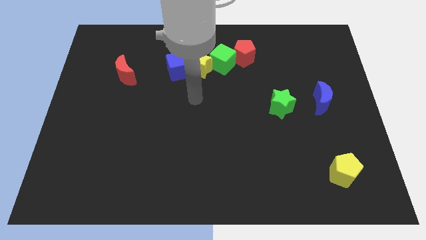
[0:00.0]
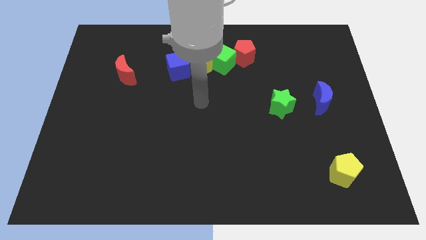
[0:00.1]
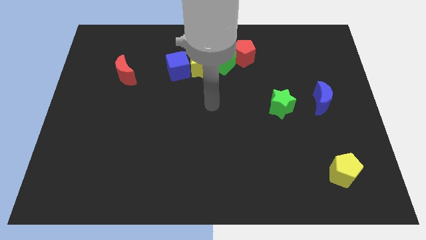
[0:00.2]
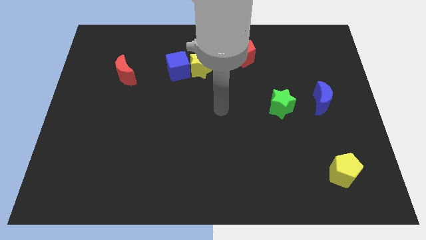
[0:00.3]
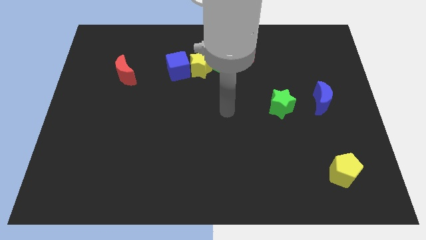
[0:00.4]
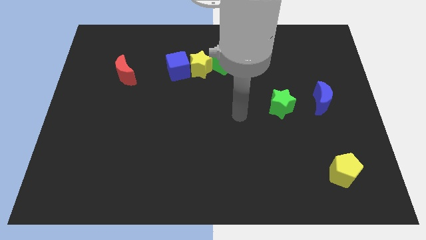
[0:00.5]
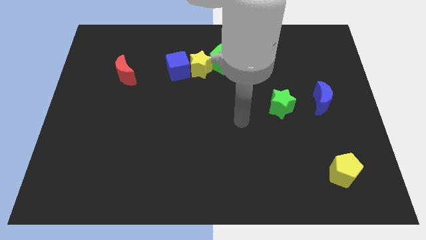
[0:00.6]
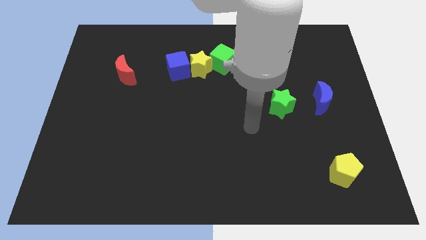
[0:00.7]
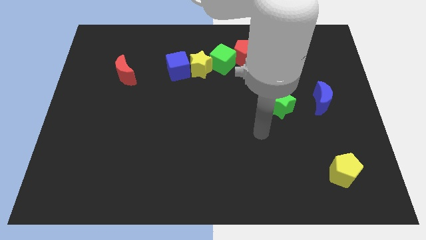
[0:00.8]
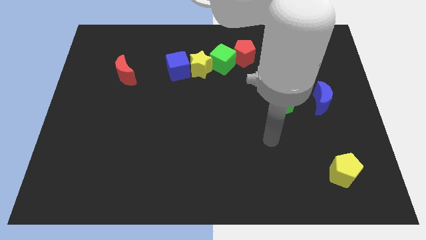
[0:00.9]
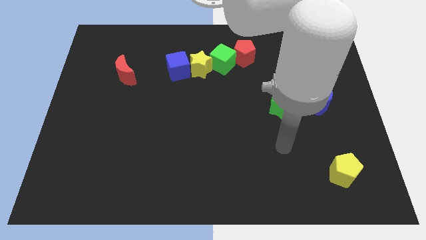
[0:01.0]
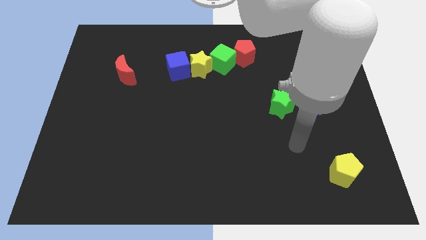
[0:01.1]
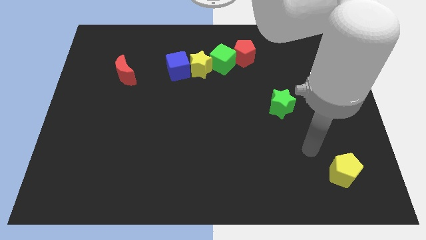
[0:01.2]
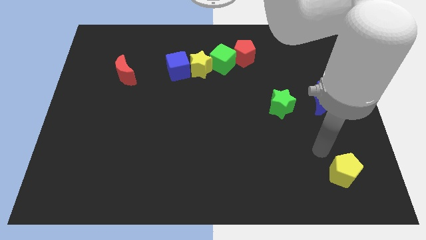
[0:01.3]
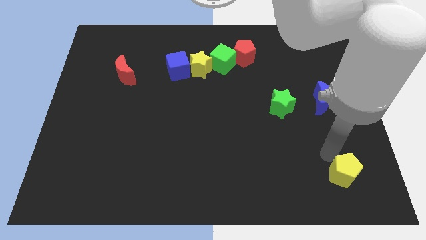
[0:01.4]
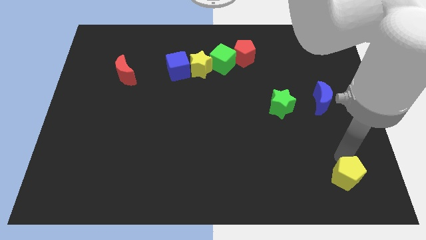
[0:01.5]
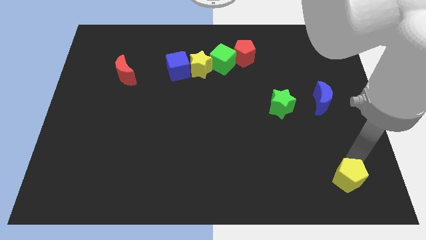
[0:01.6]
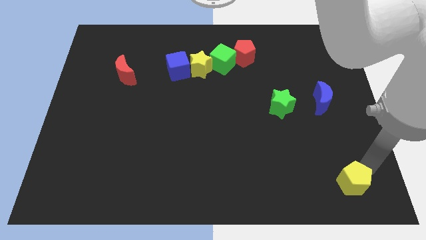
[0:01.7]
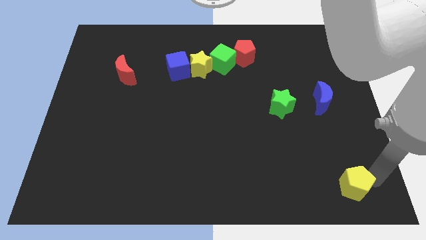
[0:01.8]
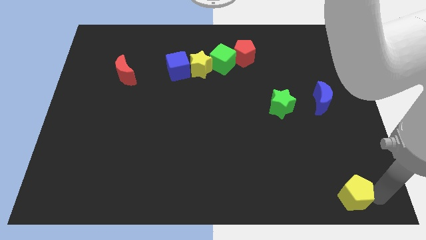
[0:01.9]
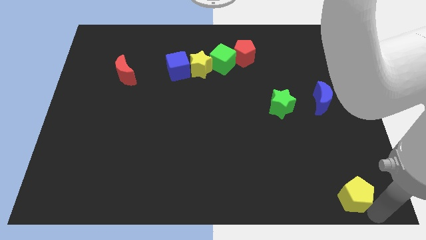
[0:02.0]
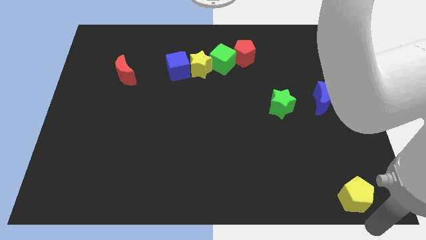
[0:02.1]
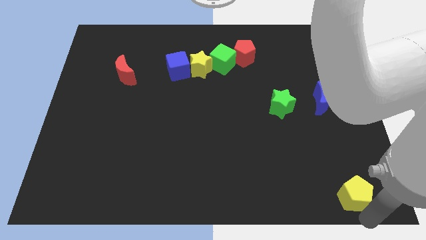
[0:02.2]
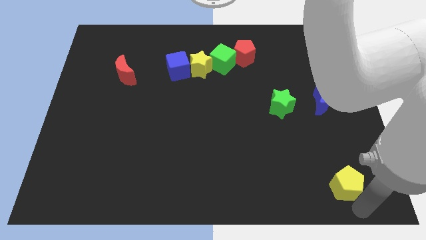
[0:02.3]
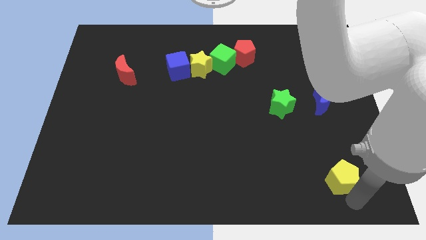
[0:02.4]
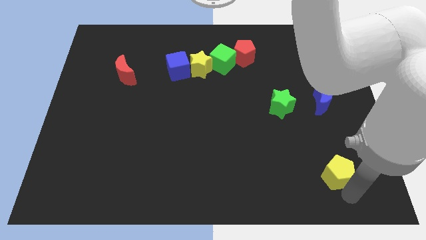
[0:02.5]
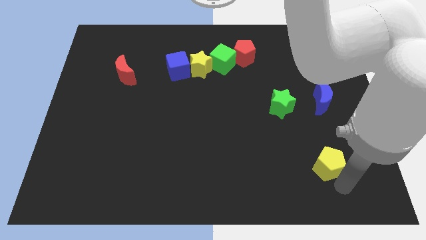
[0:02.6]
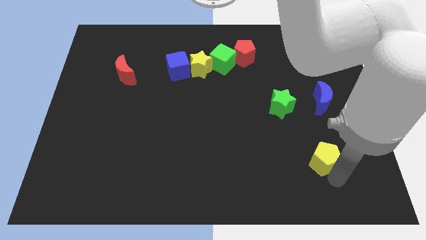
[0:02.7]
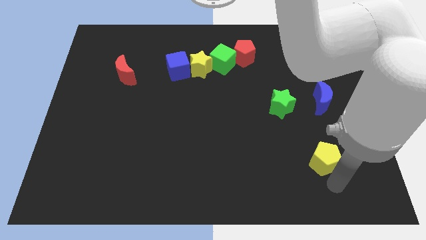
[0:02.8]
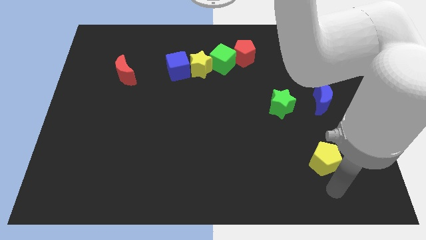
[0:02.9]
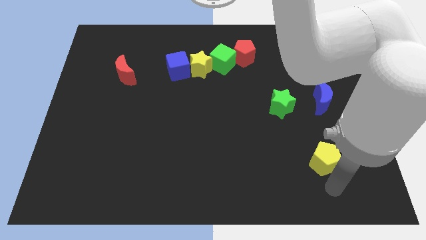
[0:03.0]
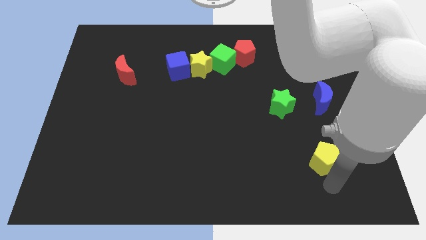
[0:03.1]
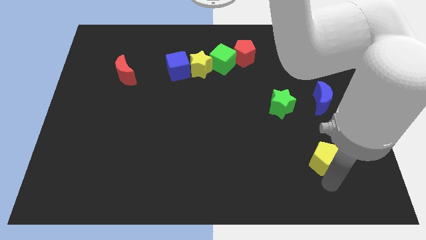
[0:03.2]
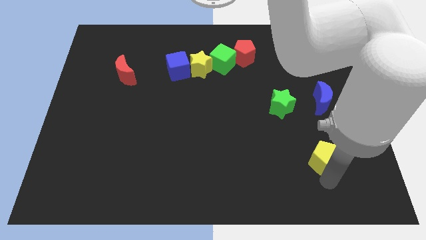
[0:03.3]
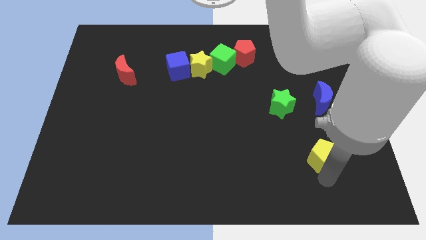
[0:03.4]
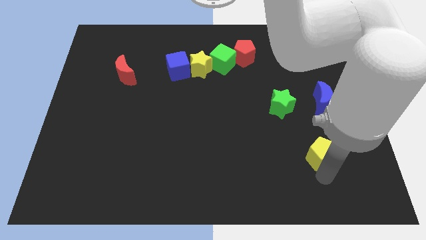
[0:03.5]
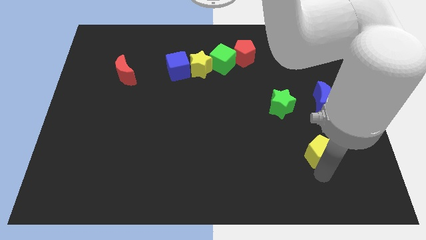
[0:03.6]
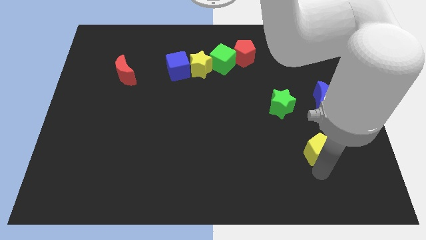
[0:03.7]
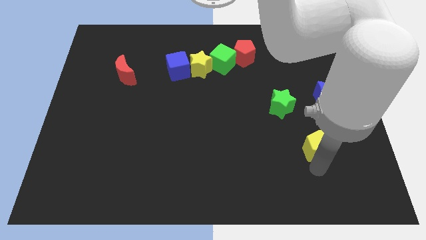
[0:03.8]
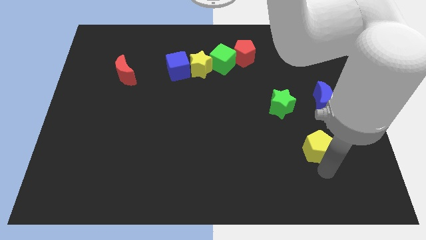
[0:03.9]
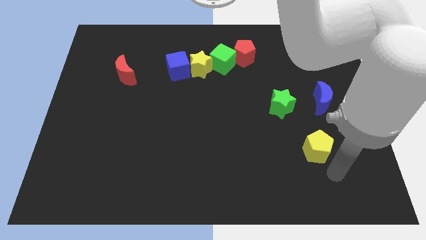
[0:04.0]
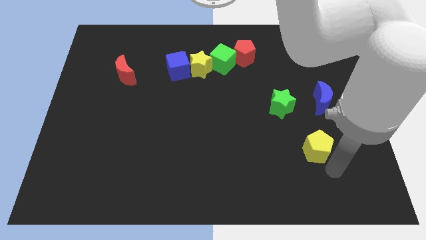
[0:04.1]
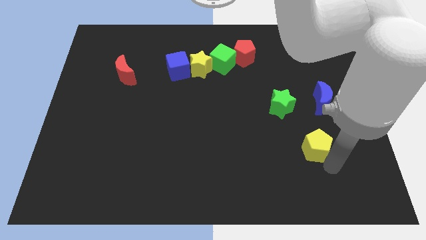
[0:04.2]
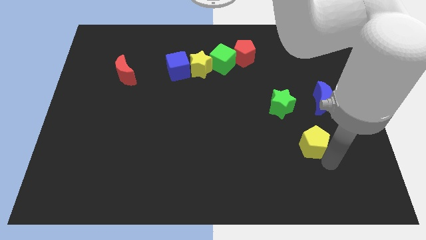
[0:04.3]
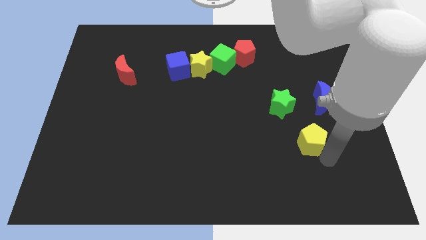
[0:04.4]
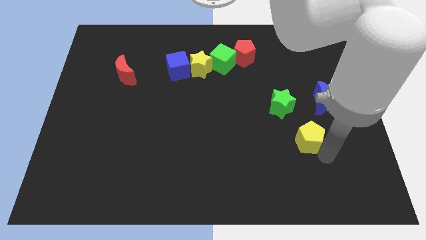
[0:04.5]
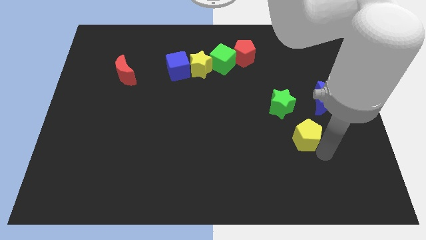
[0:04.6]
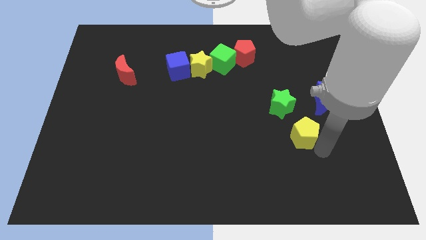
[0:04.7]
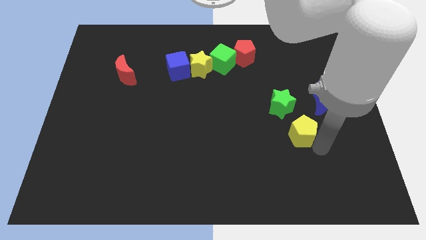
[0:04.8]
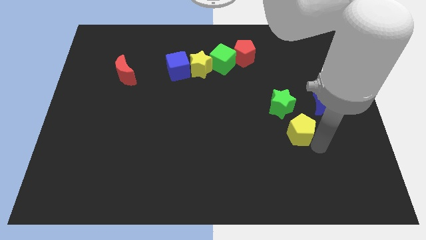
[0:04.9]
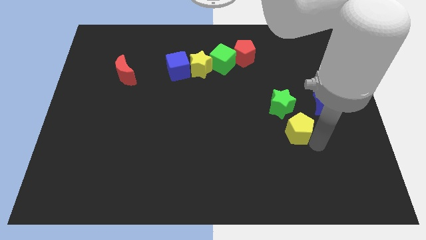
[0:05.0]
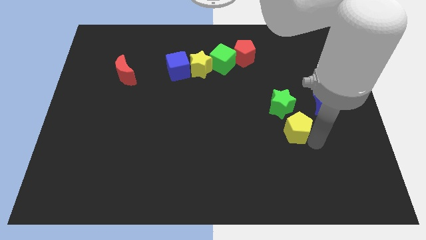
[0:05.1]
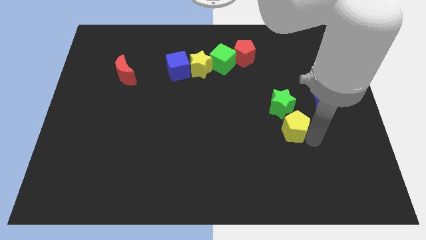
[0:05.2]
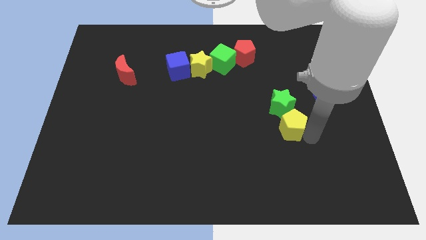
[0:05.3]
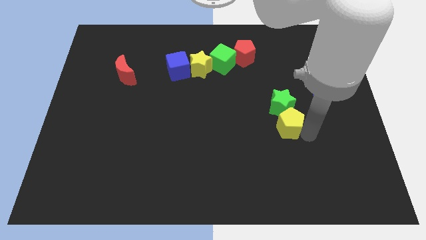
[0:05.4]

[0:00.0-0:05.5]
put the yellow pentagon towards the green star

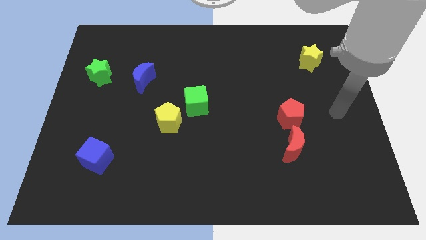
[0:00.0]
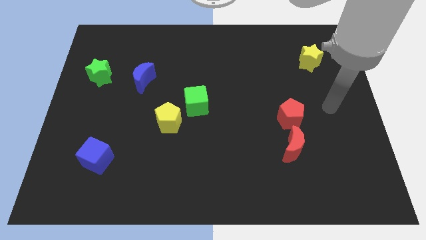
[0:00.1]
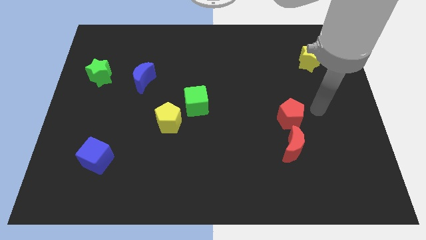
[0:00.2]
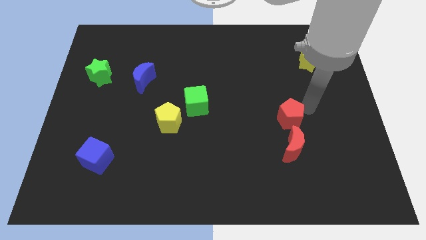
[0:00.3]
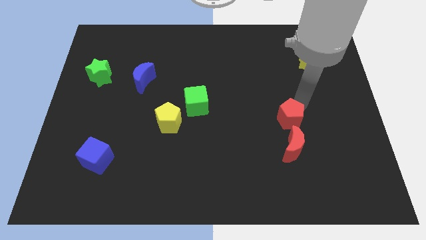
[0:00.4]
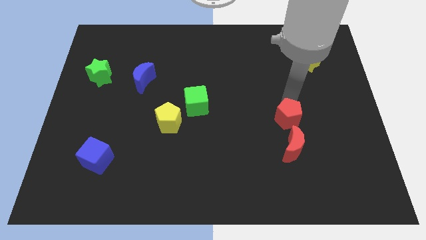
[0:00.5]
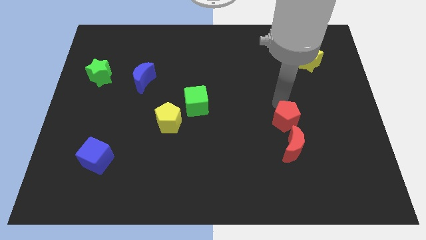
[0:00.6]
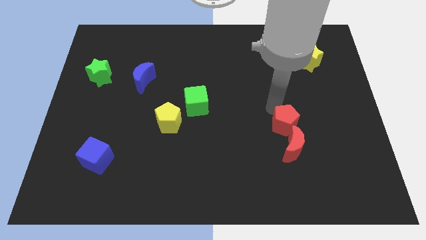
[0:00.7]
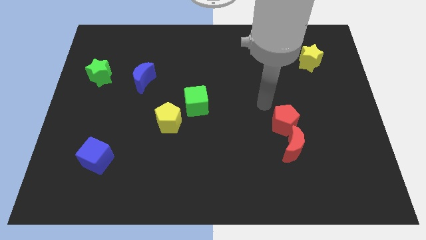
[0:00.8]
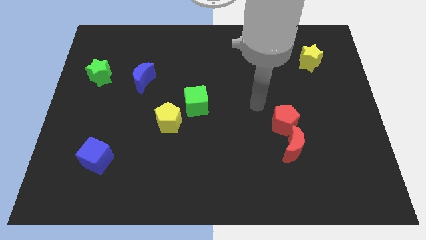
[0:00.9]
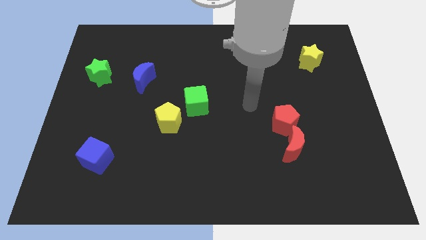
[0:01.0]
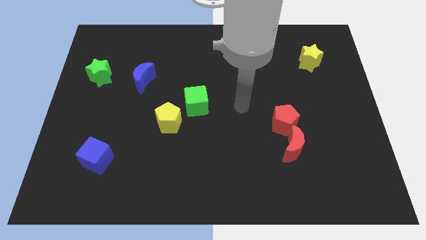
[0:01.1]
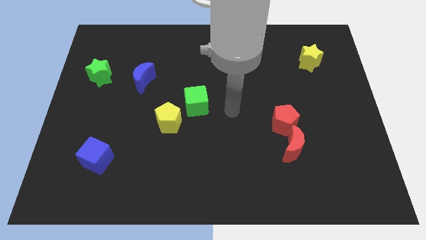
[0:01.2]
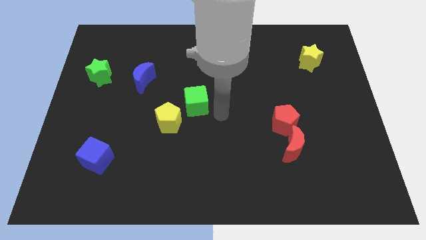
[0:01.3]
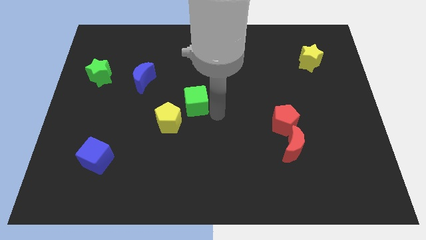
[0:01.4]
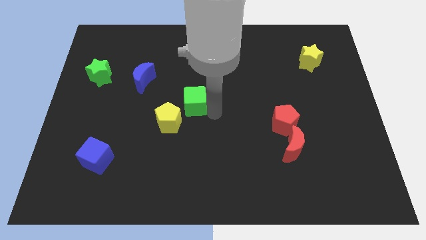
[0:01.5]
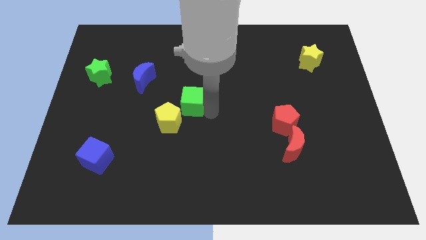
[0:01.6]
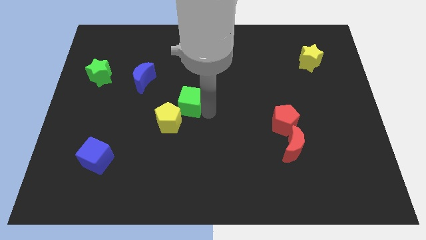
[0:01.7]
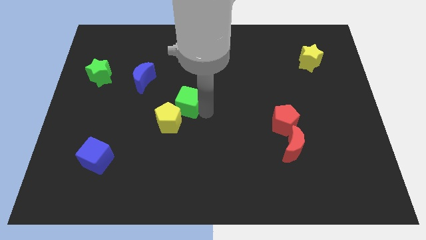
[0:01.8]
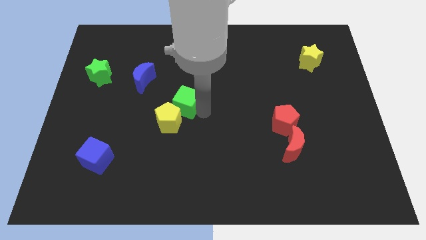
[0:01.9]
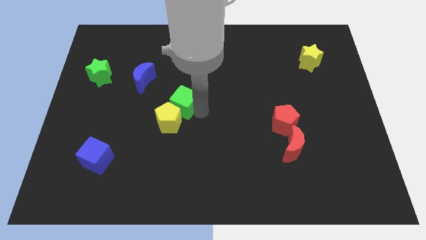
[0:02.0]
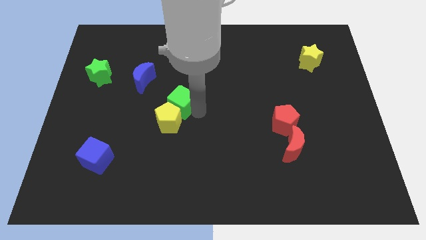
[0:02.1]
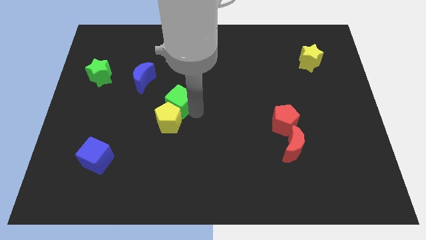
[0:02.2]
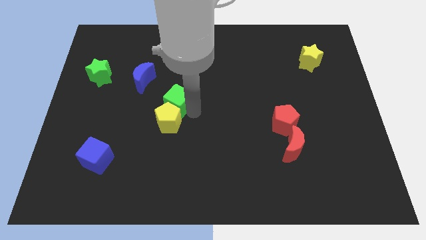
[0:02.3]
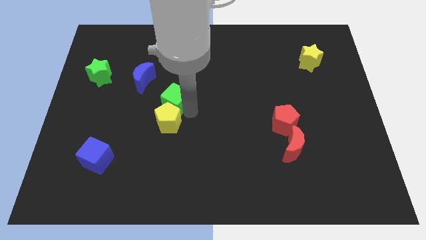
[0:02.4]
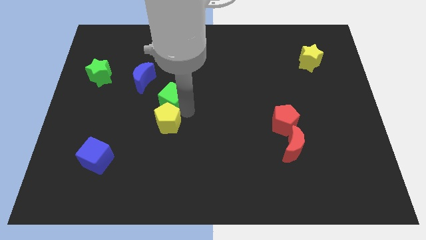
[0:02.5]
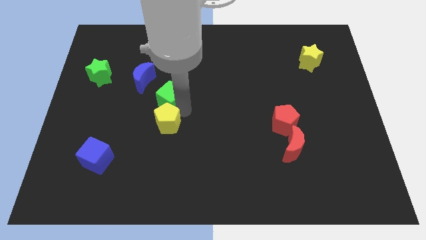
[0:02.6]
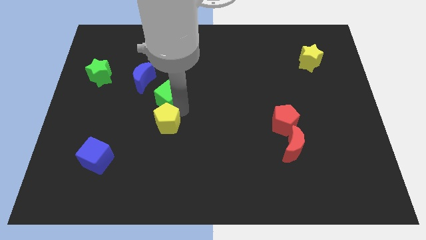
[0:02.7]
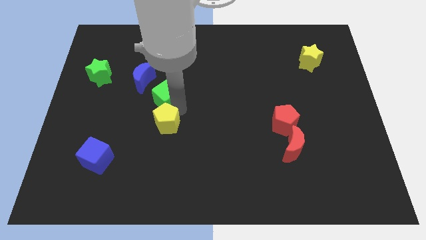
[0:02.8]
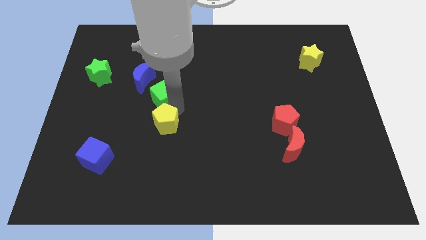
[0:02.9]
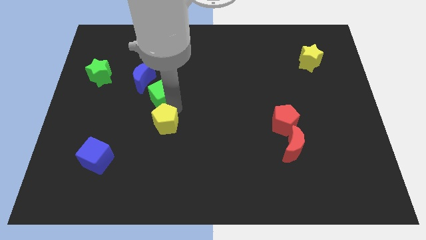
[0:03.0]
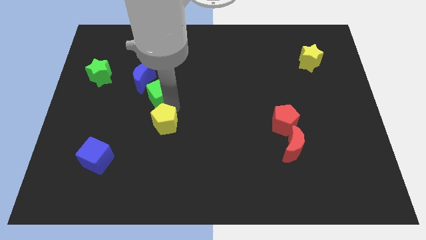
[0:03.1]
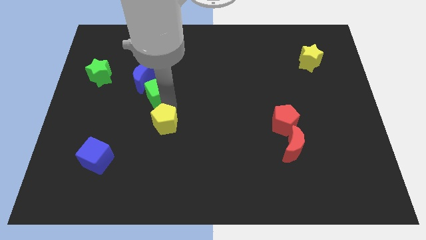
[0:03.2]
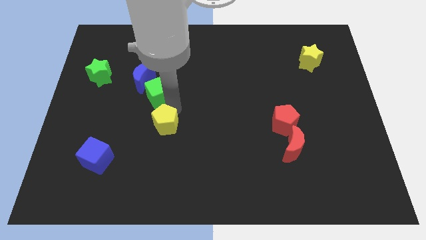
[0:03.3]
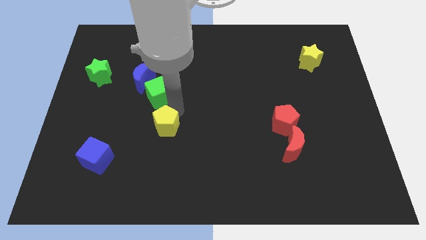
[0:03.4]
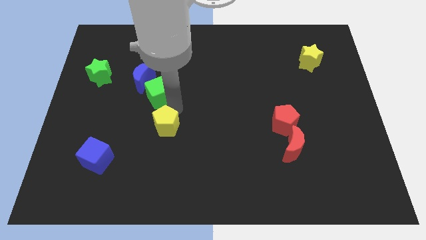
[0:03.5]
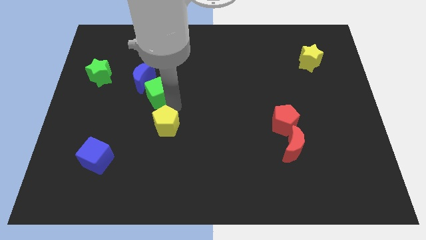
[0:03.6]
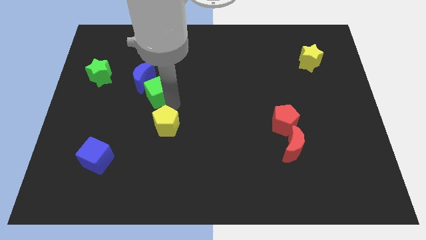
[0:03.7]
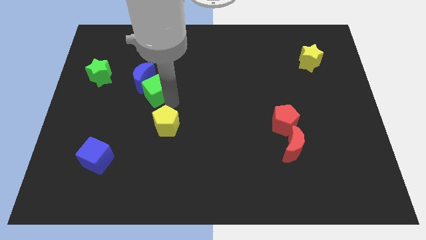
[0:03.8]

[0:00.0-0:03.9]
put the green cube close to the blue moon
